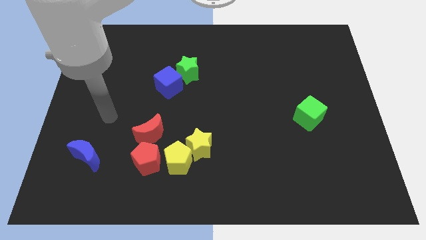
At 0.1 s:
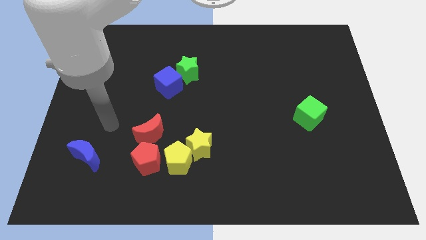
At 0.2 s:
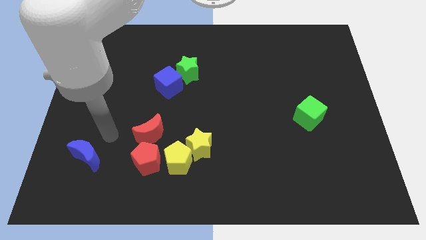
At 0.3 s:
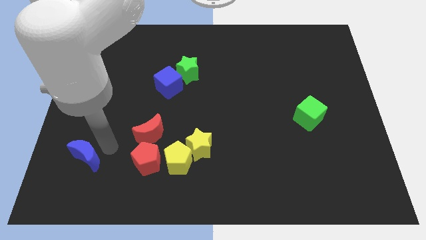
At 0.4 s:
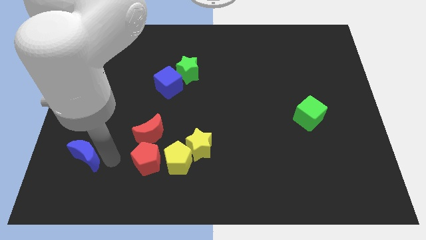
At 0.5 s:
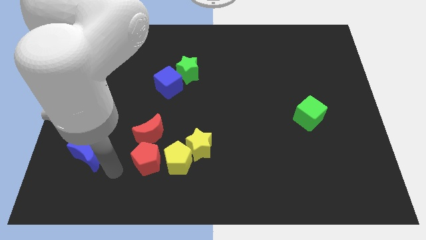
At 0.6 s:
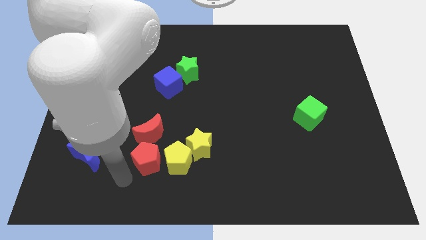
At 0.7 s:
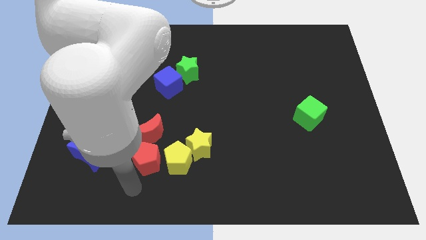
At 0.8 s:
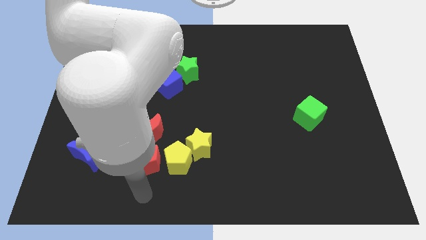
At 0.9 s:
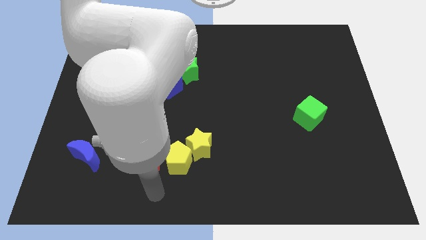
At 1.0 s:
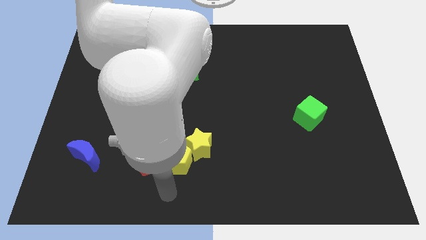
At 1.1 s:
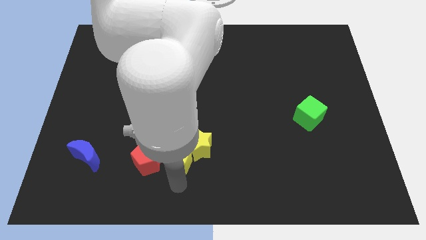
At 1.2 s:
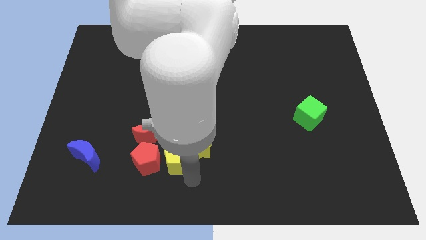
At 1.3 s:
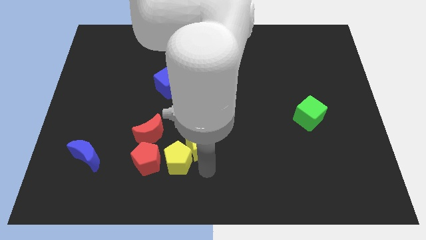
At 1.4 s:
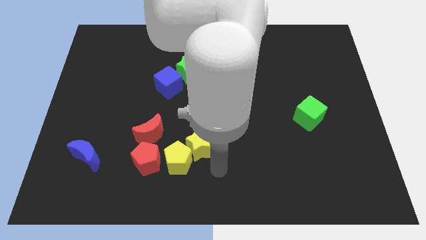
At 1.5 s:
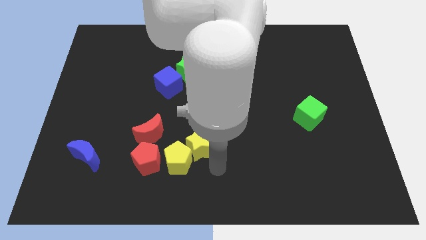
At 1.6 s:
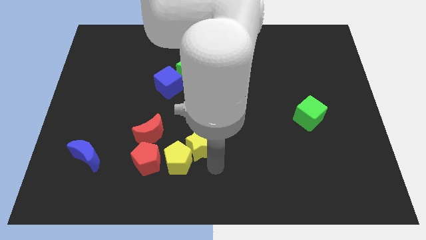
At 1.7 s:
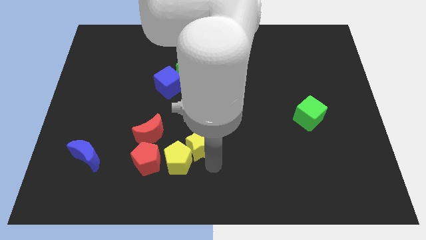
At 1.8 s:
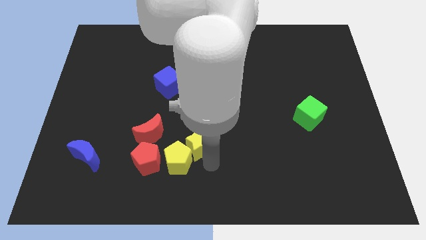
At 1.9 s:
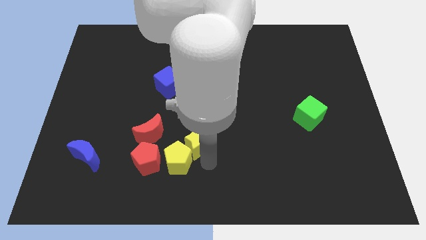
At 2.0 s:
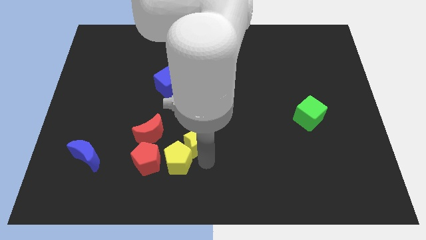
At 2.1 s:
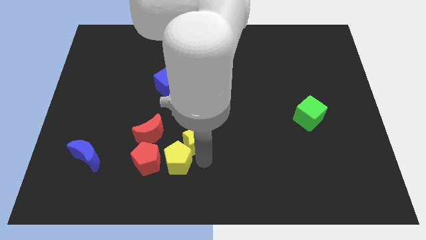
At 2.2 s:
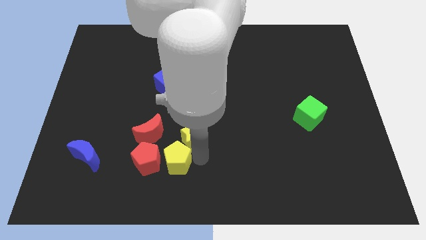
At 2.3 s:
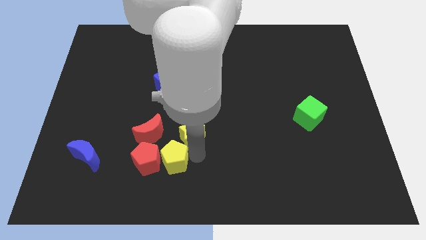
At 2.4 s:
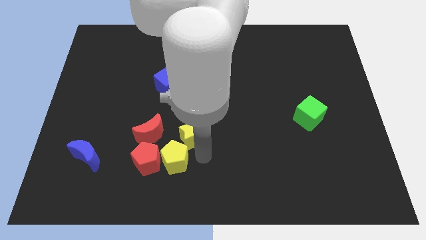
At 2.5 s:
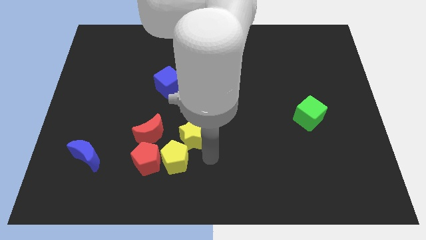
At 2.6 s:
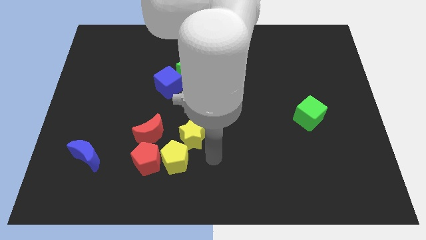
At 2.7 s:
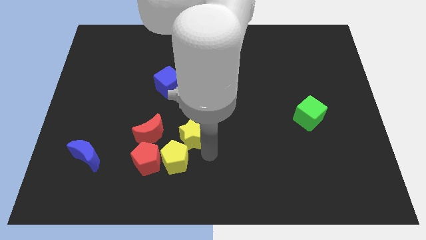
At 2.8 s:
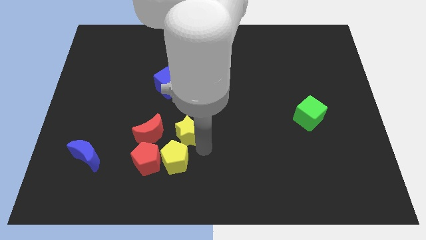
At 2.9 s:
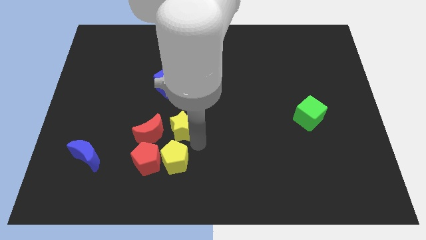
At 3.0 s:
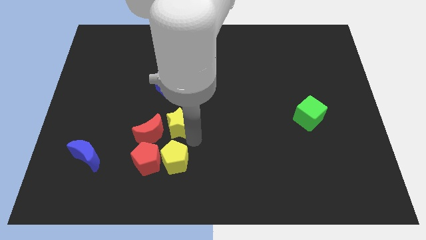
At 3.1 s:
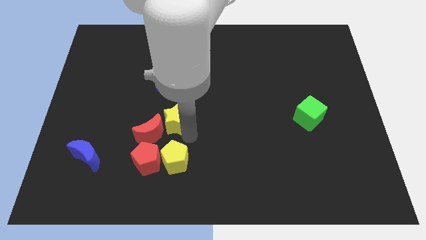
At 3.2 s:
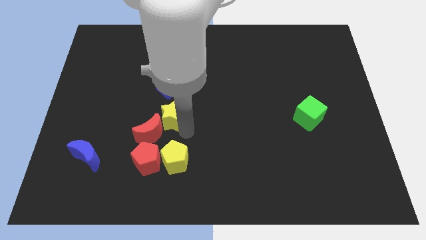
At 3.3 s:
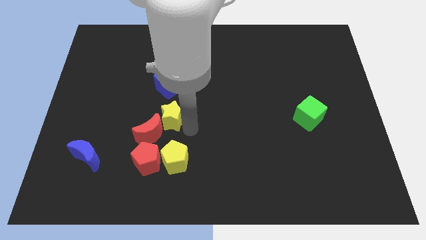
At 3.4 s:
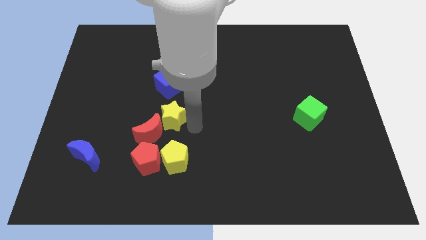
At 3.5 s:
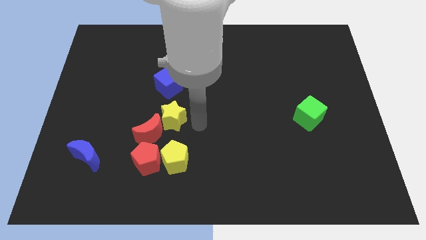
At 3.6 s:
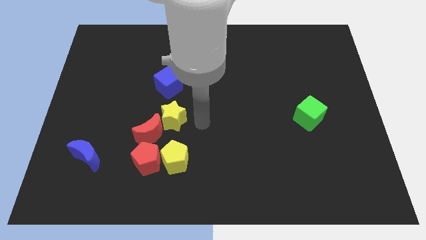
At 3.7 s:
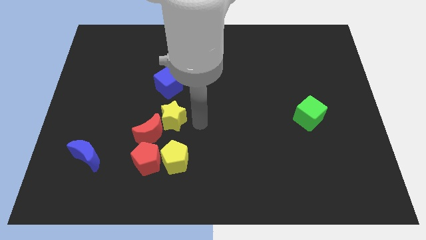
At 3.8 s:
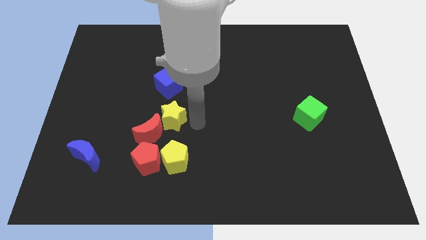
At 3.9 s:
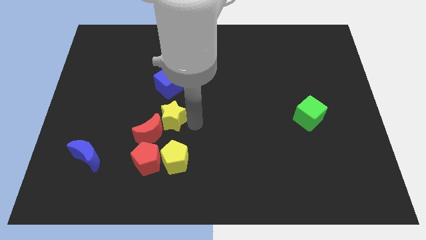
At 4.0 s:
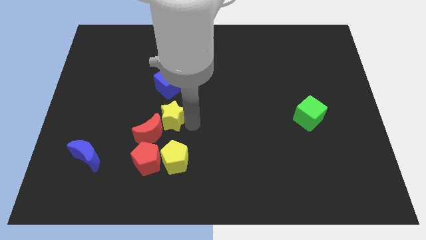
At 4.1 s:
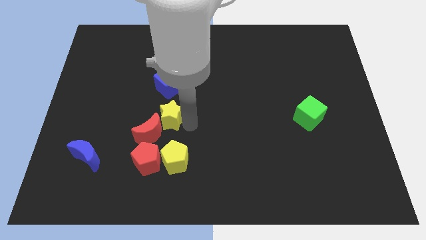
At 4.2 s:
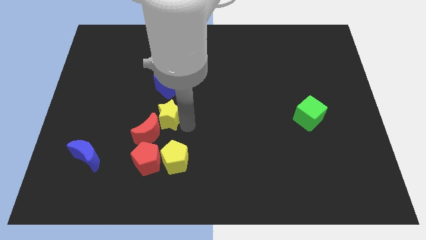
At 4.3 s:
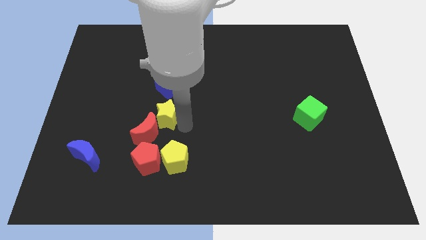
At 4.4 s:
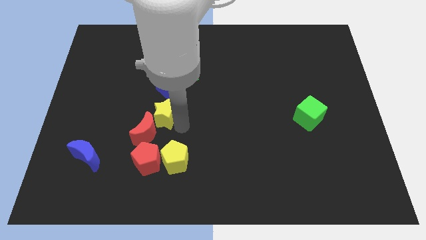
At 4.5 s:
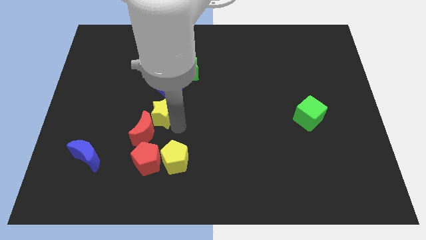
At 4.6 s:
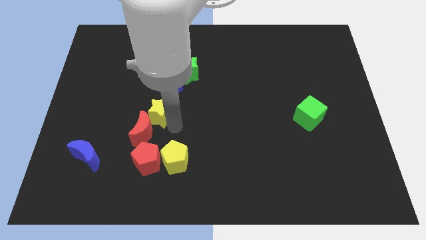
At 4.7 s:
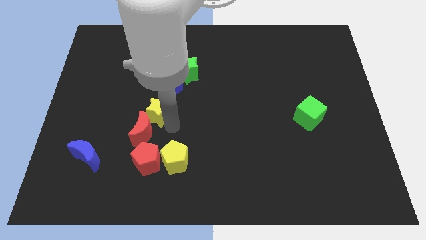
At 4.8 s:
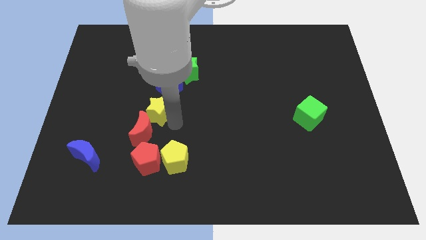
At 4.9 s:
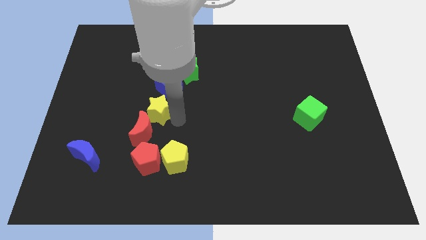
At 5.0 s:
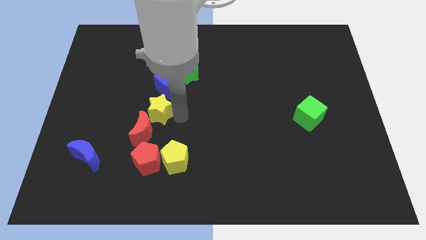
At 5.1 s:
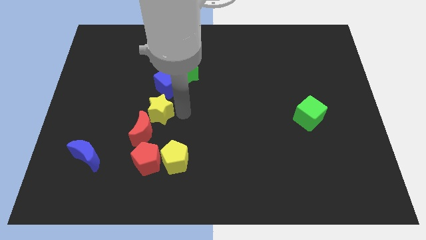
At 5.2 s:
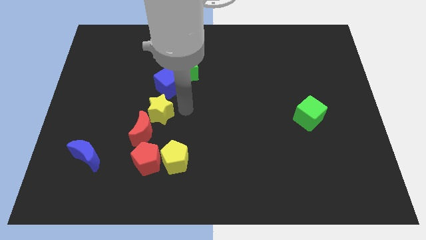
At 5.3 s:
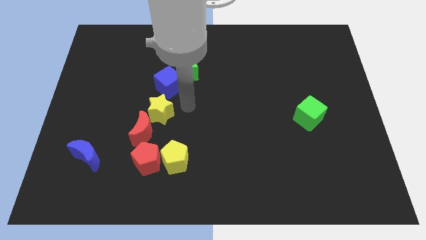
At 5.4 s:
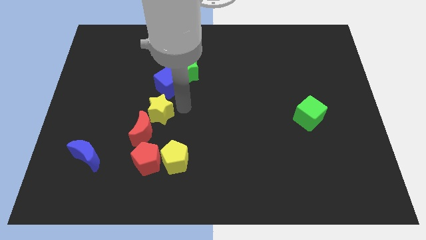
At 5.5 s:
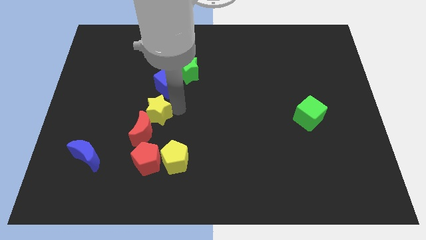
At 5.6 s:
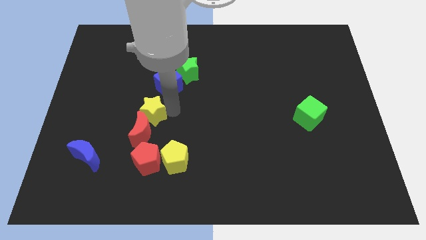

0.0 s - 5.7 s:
slightly move the yellow star to the left

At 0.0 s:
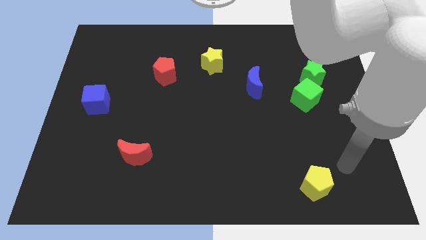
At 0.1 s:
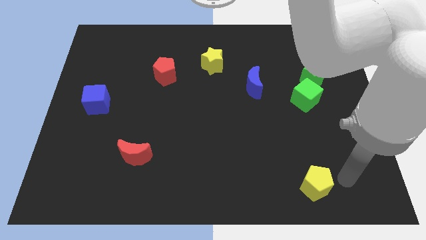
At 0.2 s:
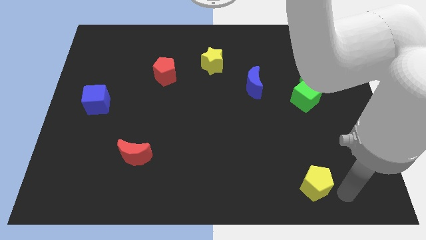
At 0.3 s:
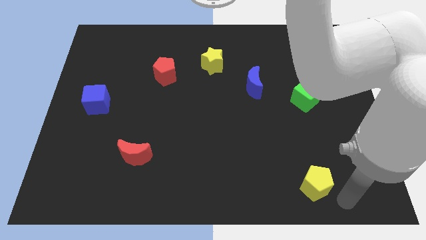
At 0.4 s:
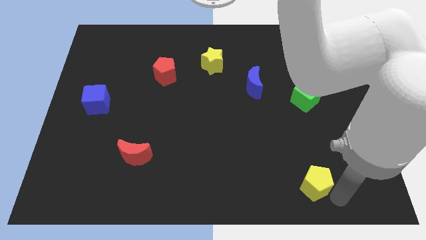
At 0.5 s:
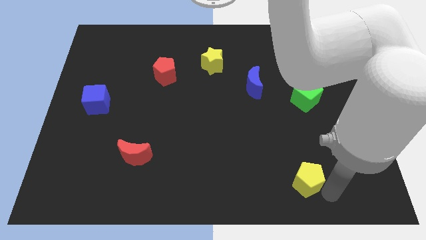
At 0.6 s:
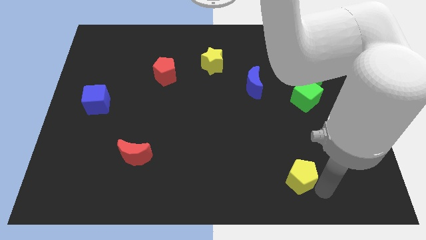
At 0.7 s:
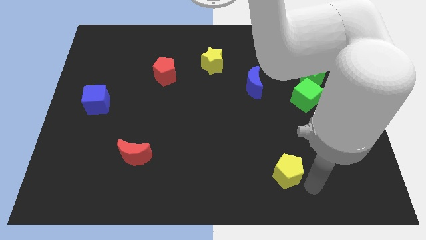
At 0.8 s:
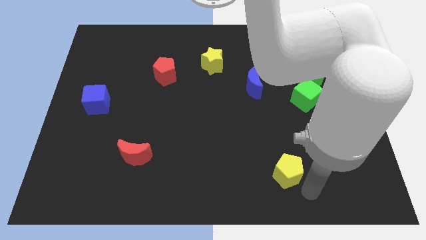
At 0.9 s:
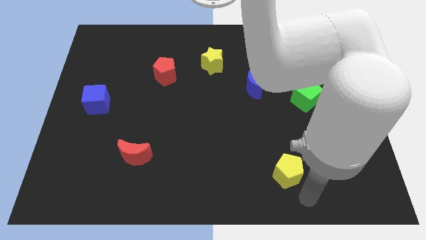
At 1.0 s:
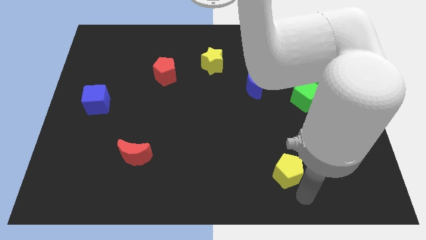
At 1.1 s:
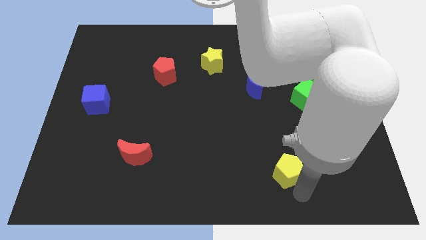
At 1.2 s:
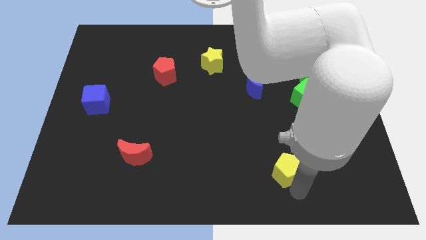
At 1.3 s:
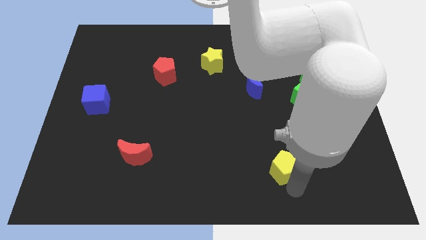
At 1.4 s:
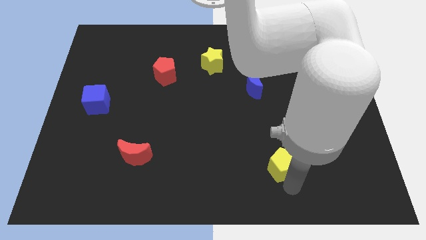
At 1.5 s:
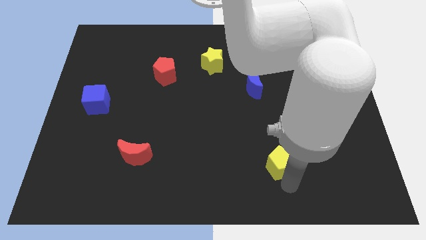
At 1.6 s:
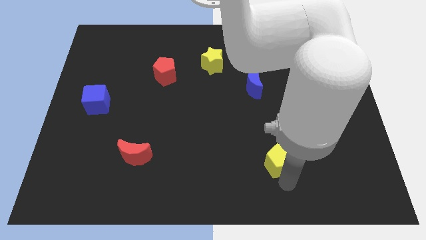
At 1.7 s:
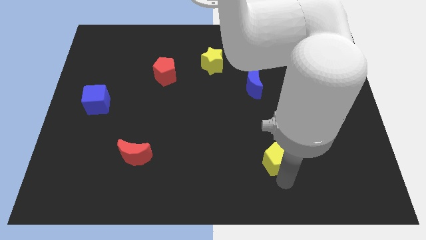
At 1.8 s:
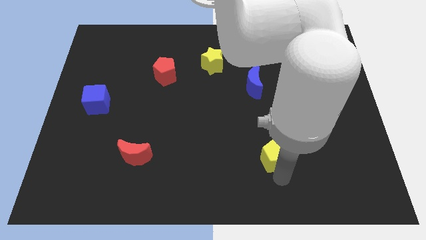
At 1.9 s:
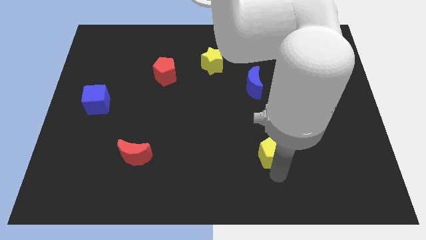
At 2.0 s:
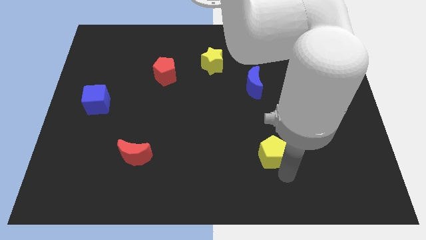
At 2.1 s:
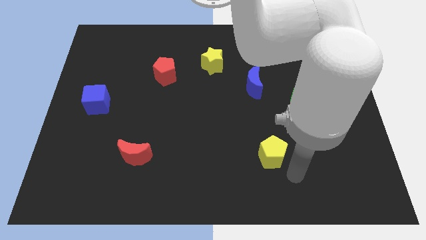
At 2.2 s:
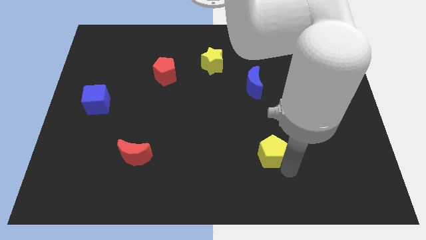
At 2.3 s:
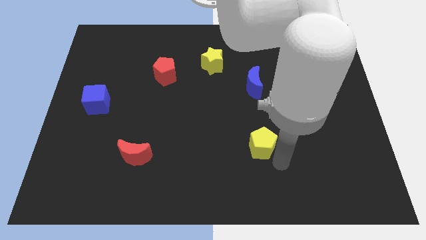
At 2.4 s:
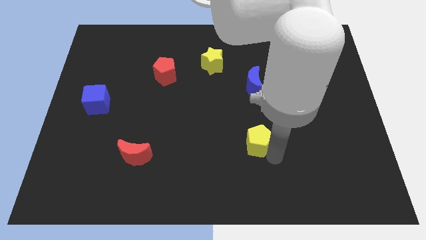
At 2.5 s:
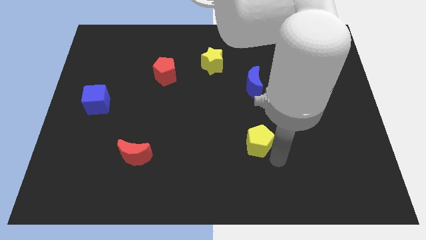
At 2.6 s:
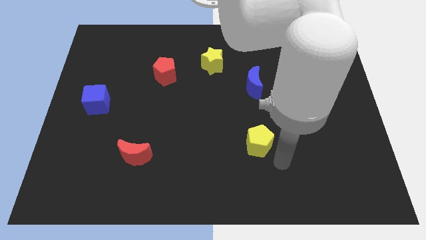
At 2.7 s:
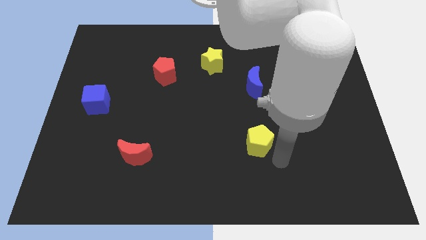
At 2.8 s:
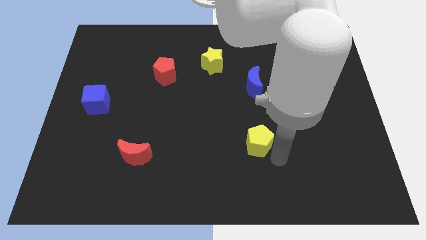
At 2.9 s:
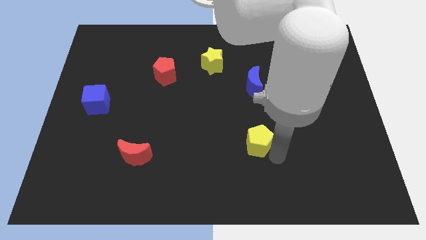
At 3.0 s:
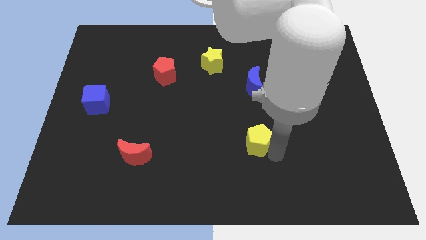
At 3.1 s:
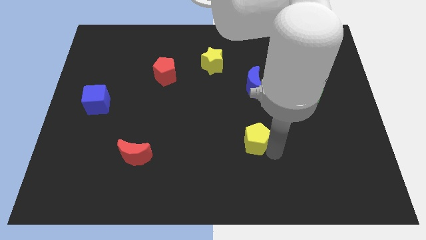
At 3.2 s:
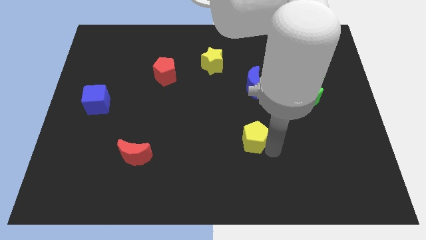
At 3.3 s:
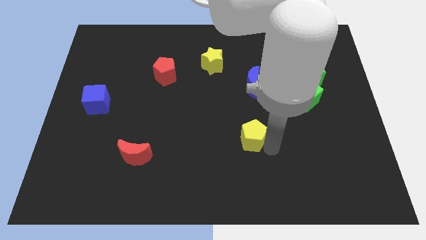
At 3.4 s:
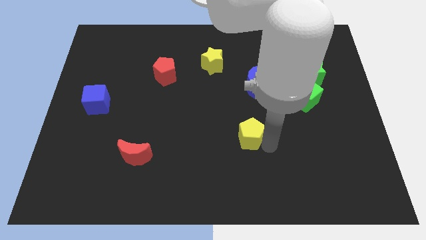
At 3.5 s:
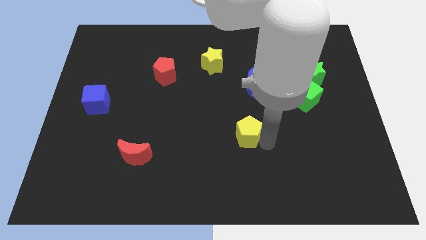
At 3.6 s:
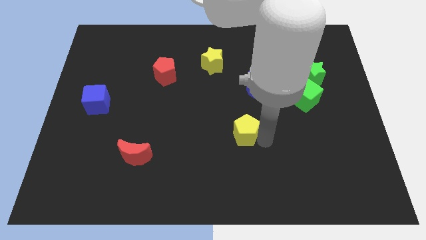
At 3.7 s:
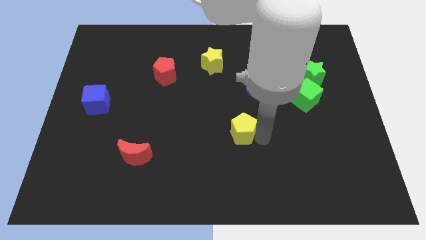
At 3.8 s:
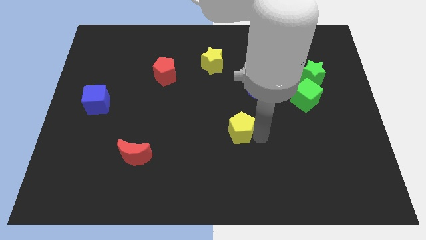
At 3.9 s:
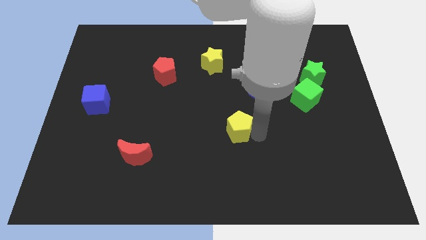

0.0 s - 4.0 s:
move the yellow pentagon up and then to the left
